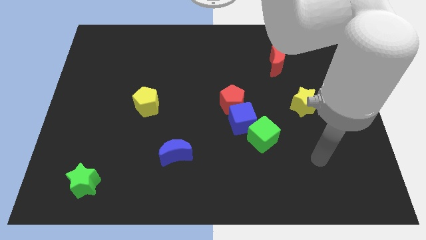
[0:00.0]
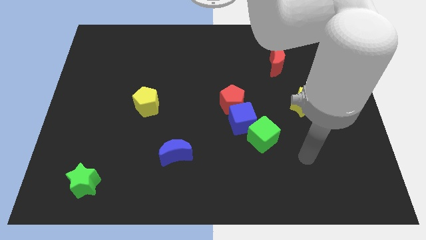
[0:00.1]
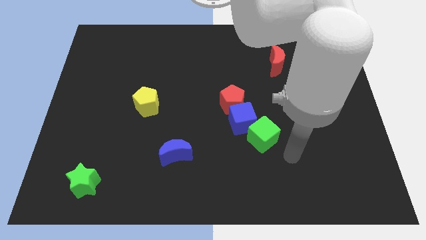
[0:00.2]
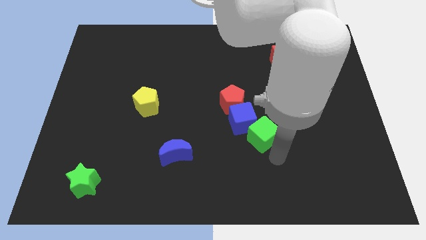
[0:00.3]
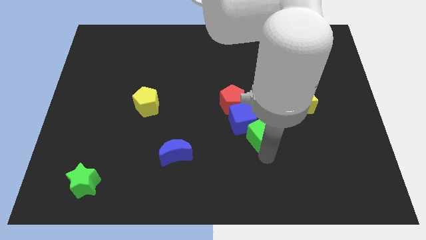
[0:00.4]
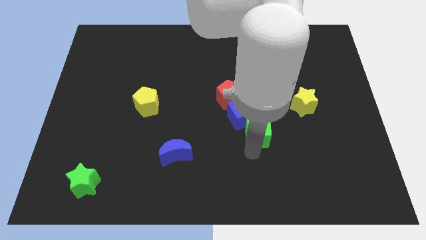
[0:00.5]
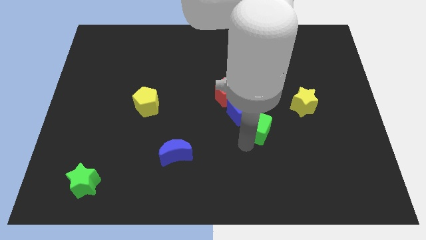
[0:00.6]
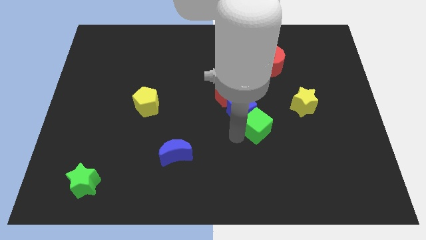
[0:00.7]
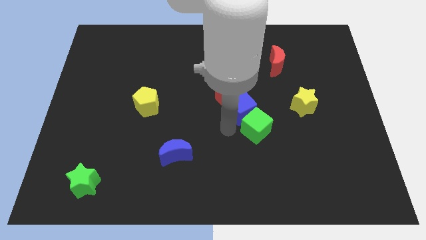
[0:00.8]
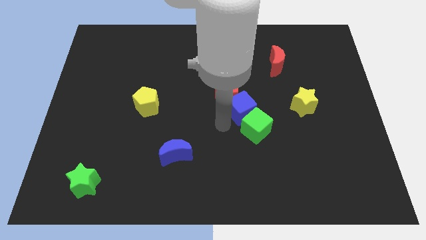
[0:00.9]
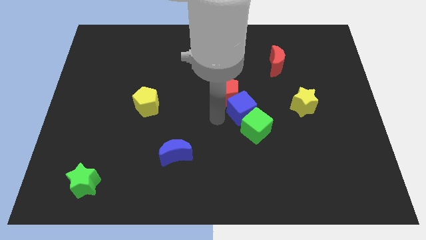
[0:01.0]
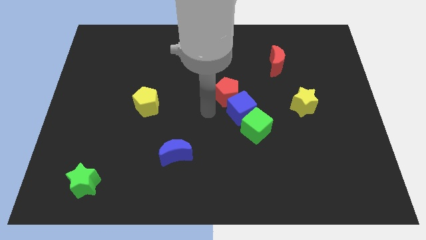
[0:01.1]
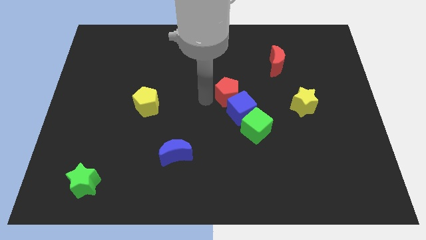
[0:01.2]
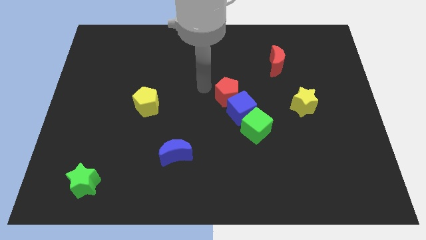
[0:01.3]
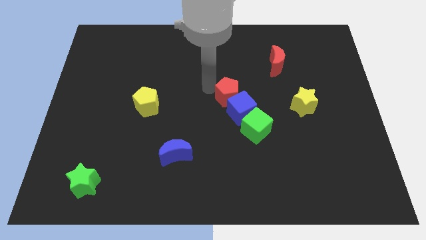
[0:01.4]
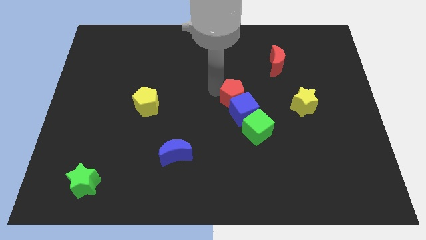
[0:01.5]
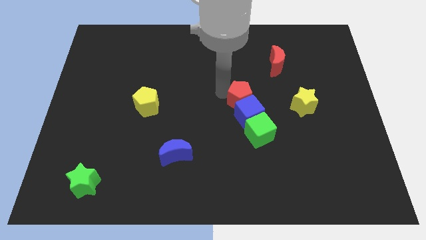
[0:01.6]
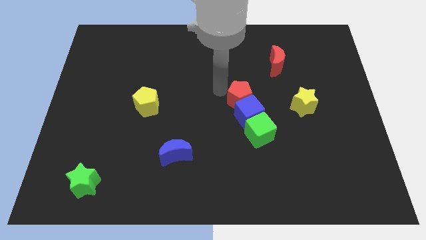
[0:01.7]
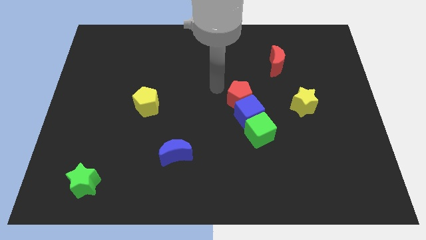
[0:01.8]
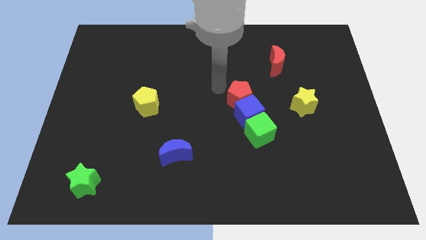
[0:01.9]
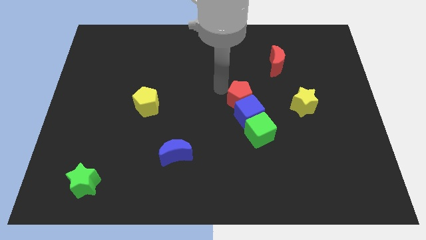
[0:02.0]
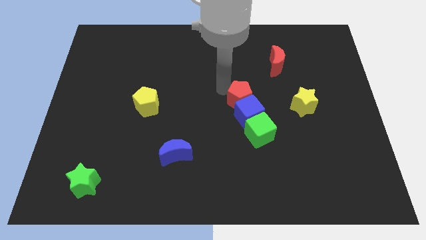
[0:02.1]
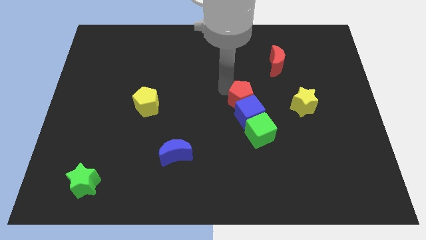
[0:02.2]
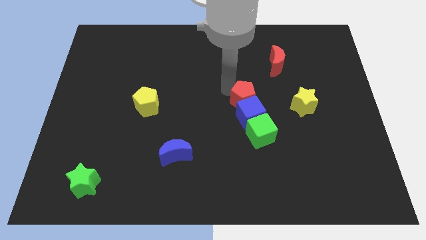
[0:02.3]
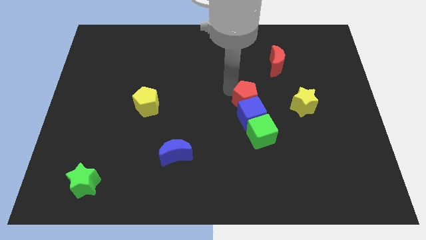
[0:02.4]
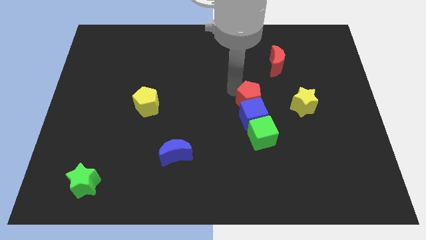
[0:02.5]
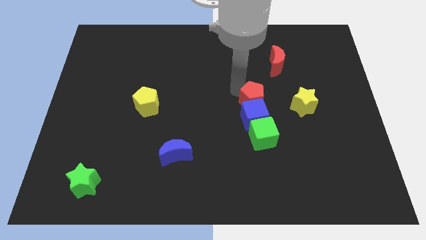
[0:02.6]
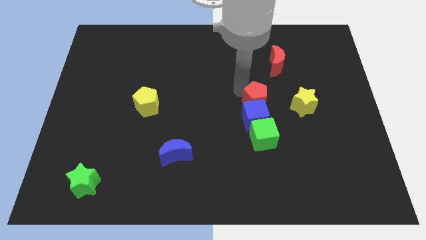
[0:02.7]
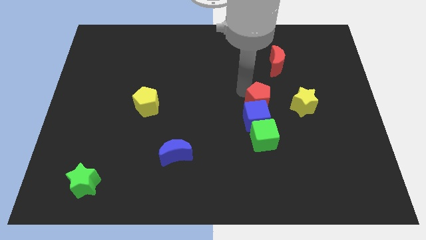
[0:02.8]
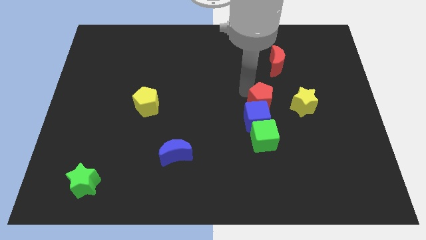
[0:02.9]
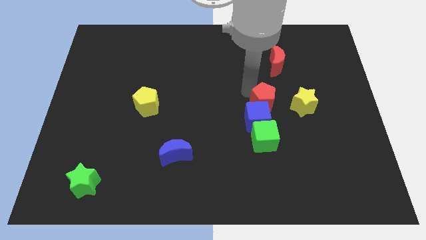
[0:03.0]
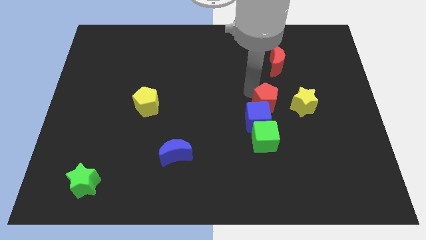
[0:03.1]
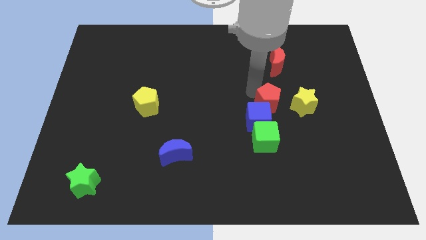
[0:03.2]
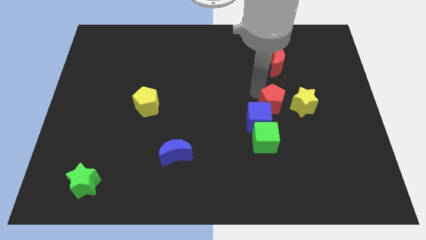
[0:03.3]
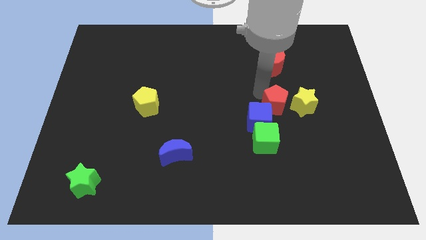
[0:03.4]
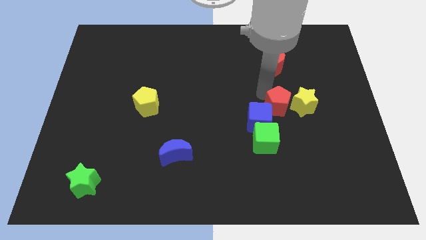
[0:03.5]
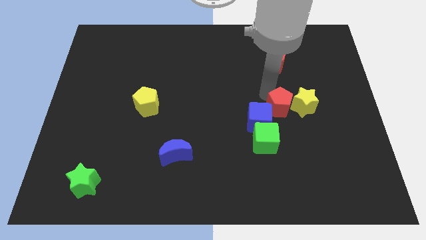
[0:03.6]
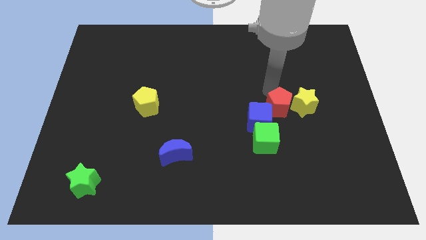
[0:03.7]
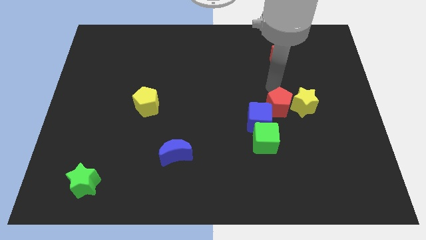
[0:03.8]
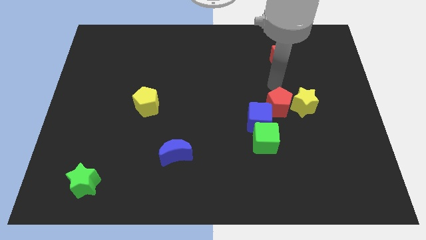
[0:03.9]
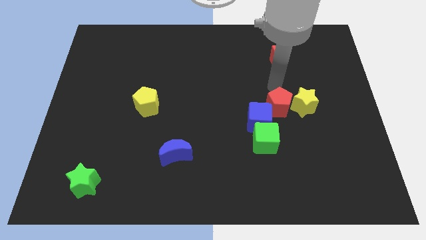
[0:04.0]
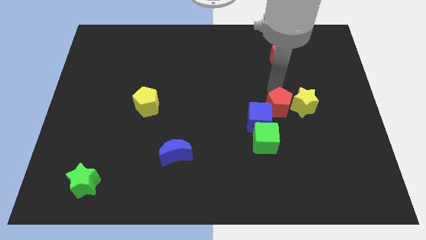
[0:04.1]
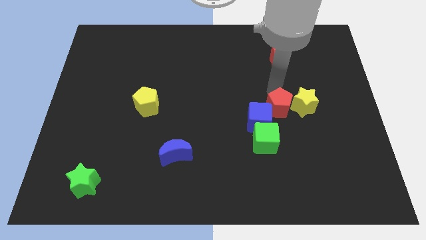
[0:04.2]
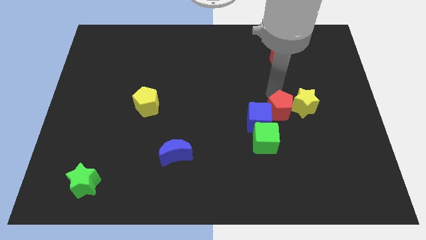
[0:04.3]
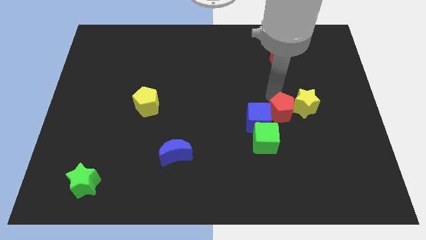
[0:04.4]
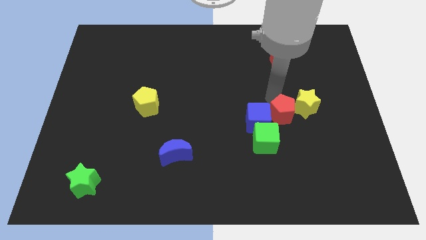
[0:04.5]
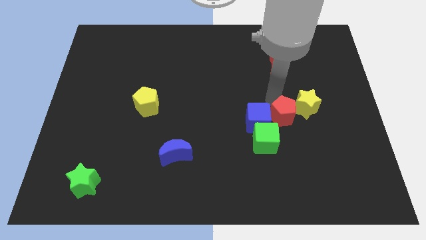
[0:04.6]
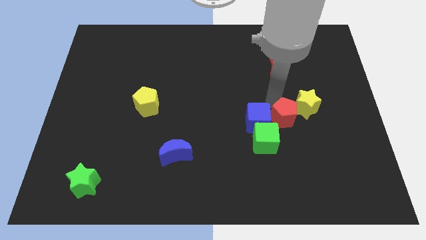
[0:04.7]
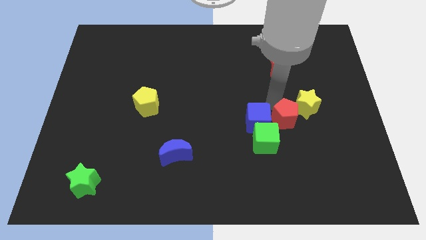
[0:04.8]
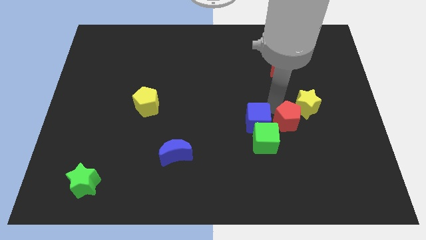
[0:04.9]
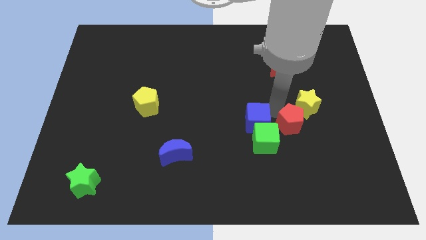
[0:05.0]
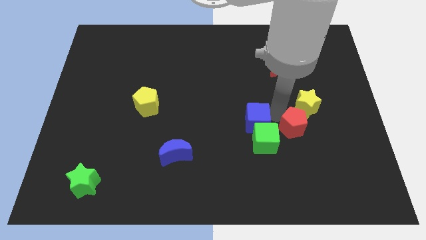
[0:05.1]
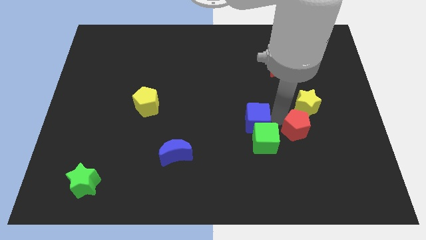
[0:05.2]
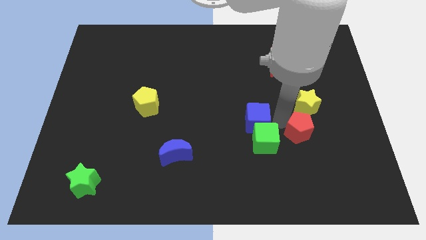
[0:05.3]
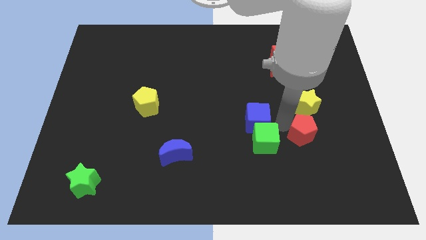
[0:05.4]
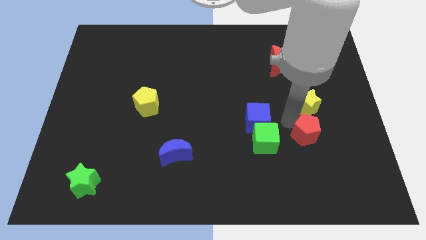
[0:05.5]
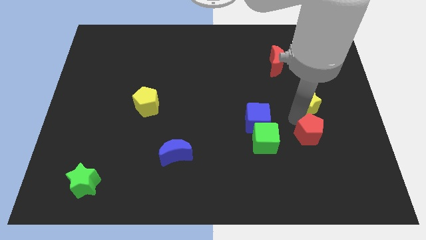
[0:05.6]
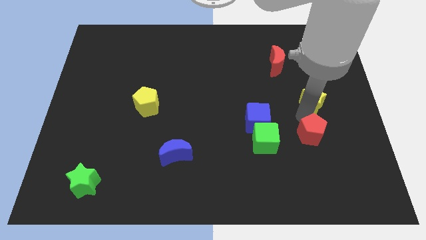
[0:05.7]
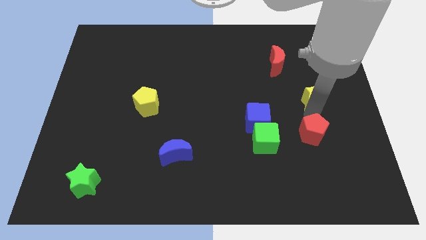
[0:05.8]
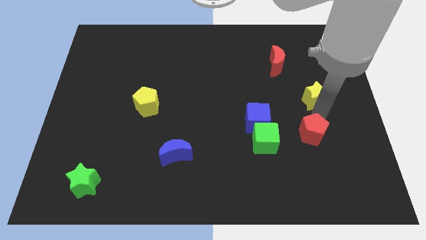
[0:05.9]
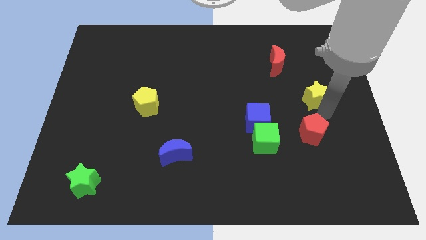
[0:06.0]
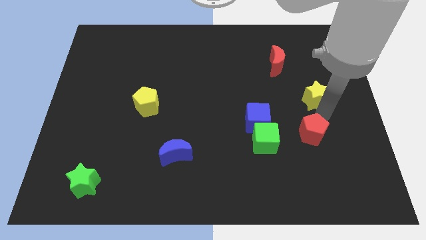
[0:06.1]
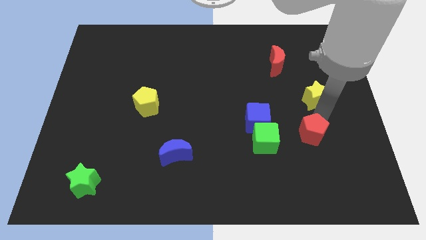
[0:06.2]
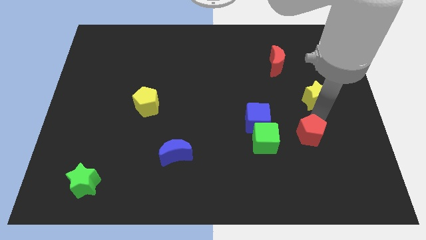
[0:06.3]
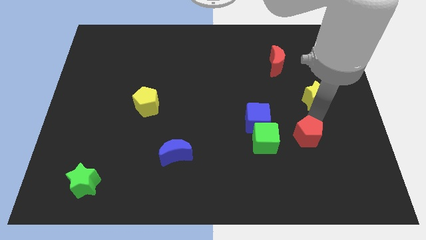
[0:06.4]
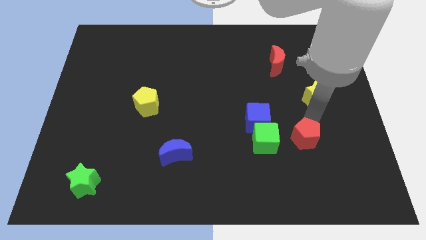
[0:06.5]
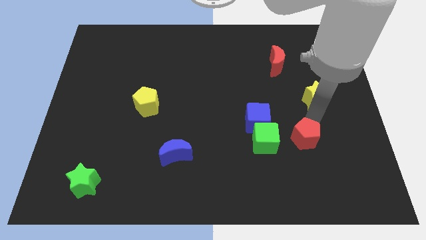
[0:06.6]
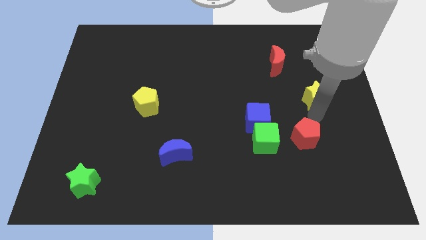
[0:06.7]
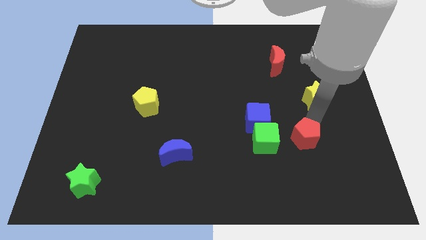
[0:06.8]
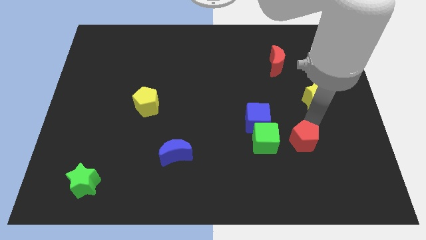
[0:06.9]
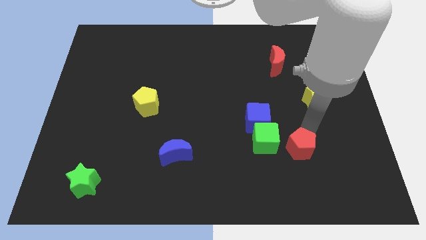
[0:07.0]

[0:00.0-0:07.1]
push the red pentagon diagonally down and to the right of the green cube

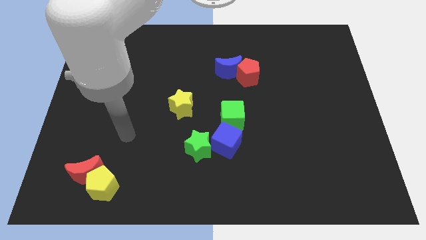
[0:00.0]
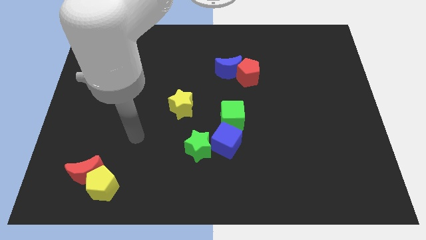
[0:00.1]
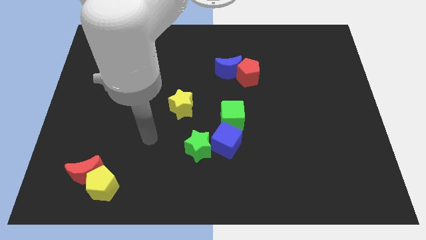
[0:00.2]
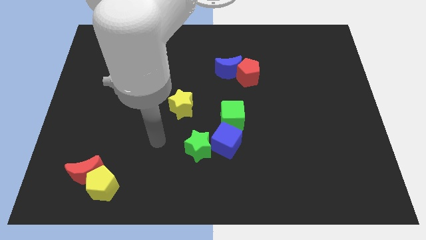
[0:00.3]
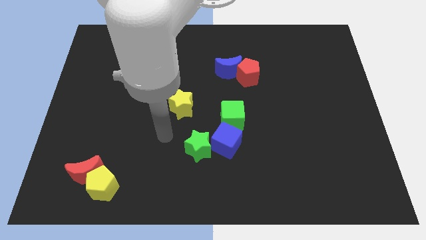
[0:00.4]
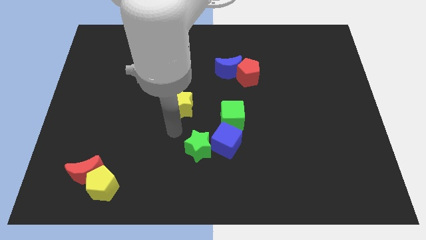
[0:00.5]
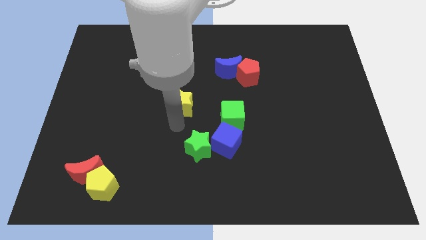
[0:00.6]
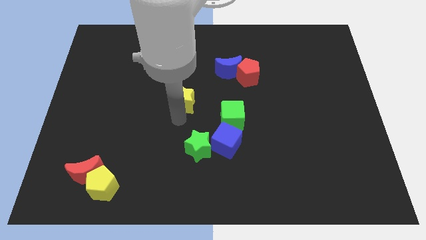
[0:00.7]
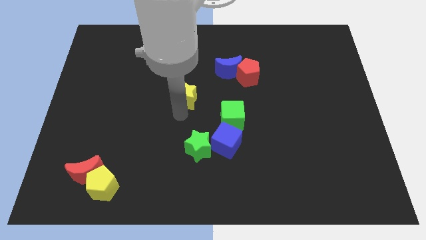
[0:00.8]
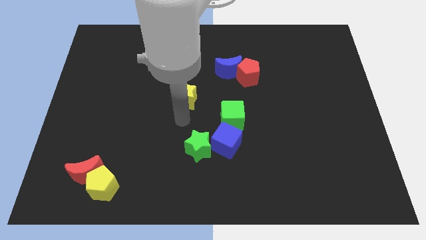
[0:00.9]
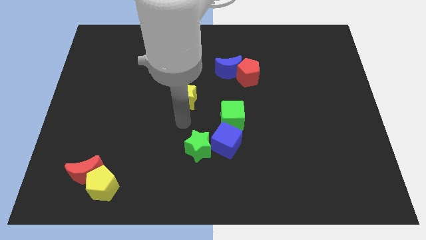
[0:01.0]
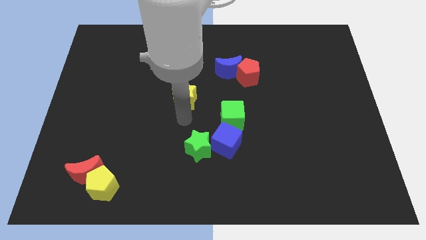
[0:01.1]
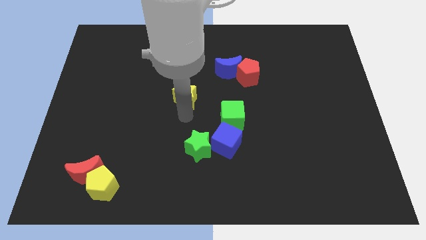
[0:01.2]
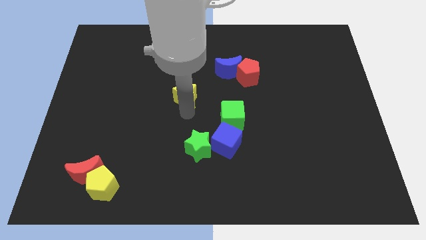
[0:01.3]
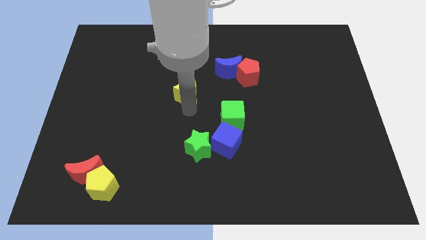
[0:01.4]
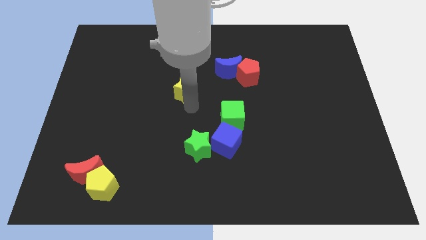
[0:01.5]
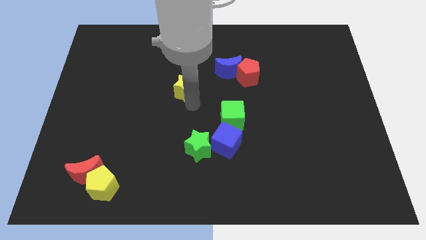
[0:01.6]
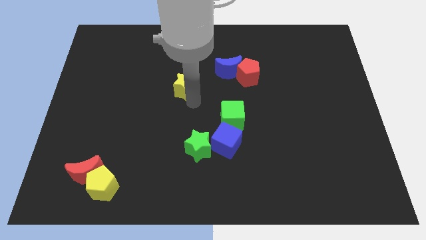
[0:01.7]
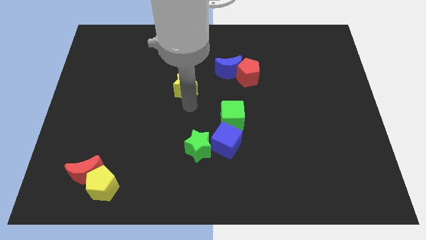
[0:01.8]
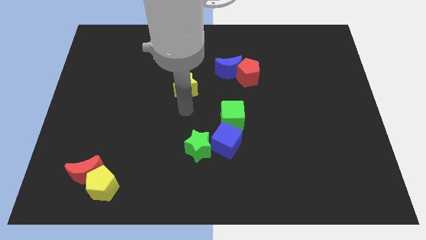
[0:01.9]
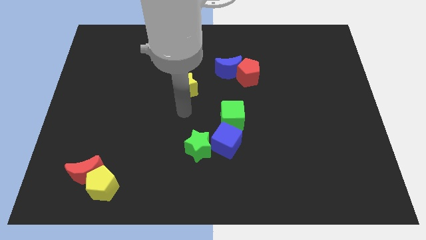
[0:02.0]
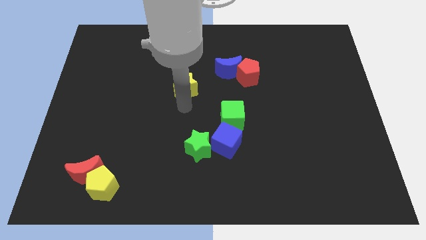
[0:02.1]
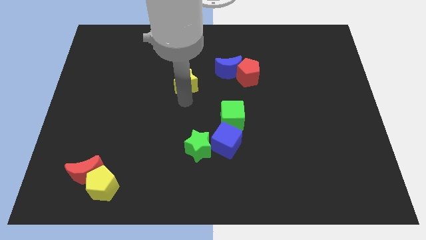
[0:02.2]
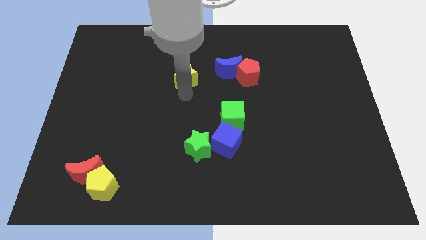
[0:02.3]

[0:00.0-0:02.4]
push the yellow star left of the blue moon
